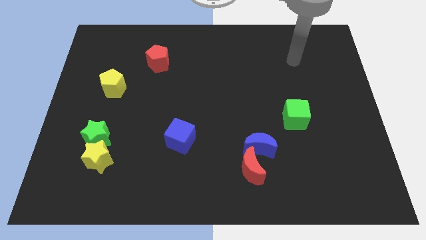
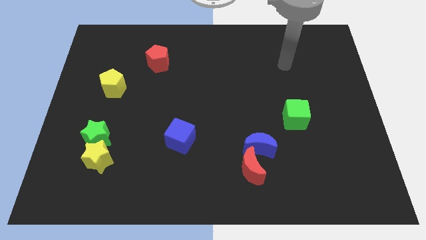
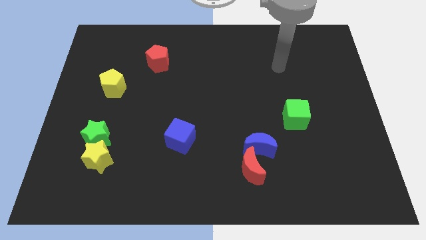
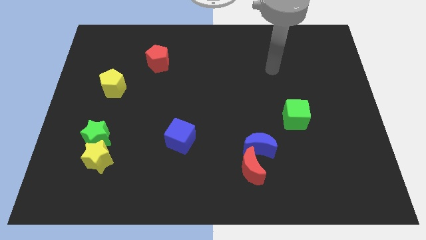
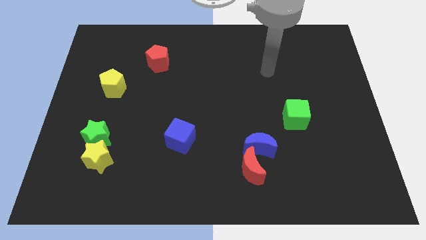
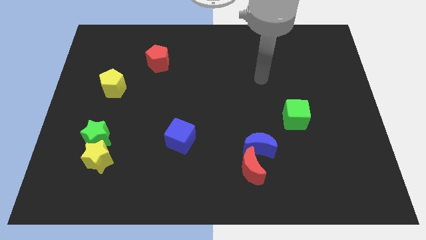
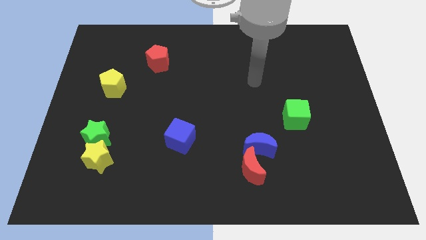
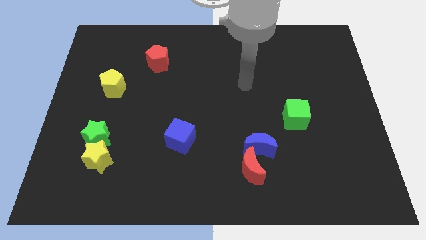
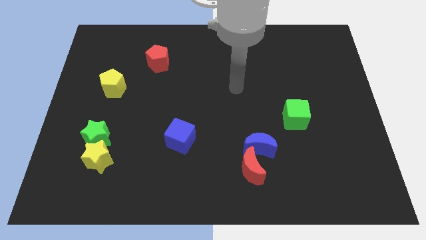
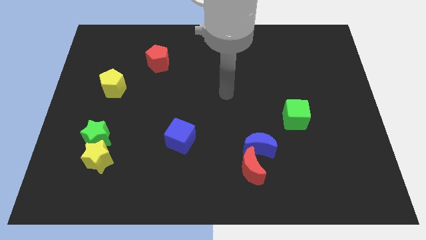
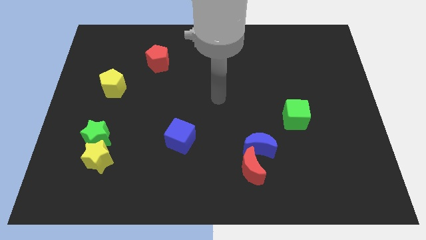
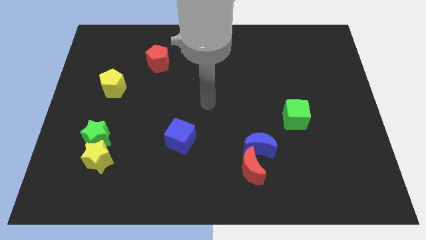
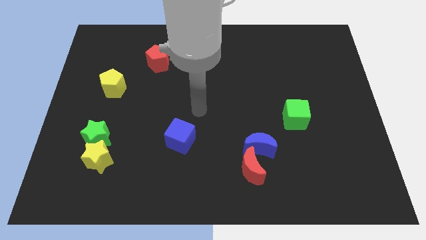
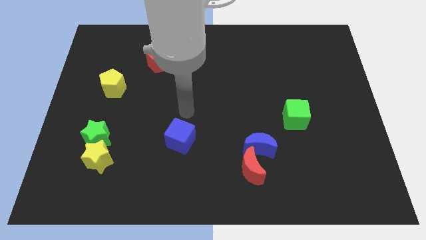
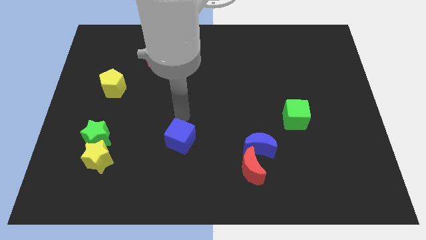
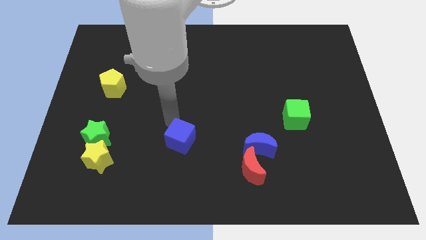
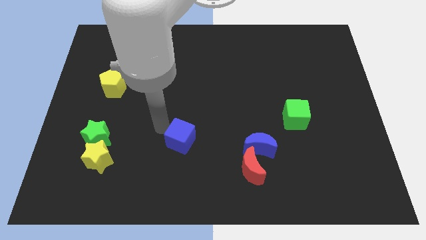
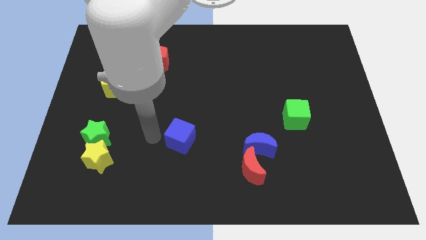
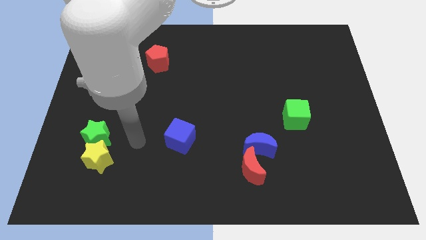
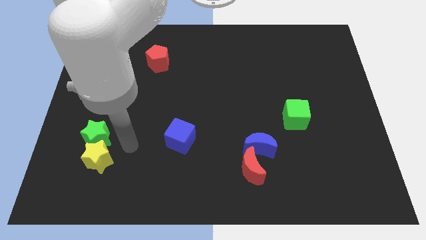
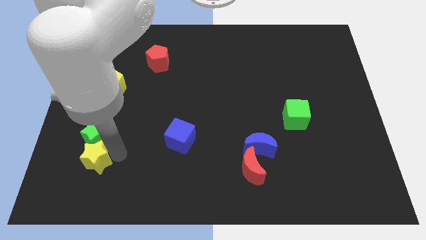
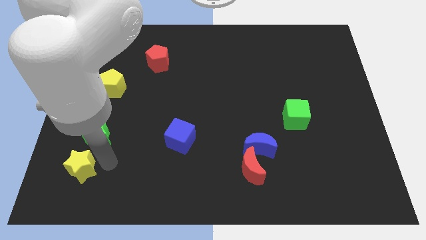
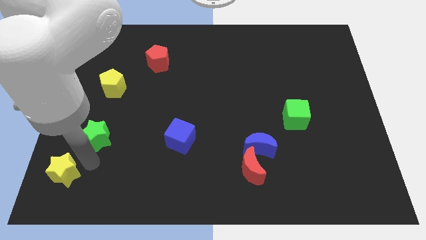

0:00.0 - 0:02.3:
pull the green star apart from the yellow star

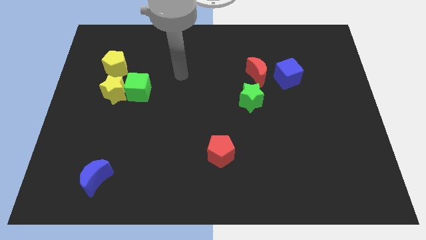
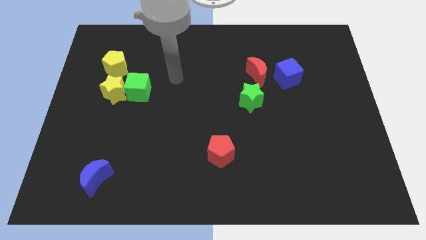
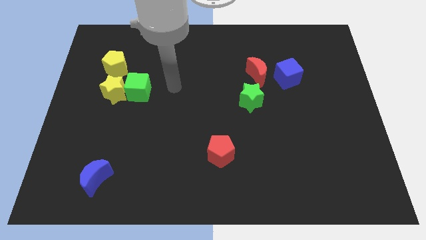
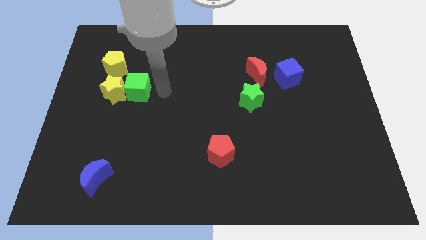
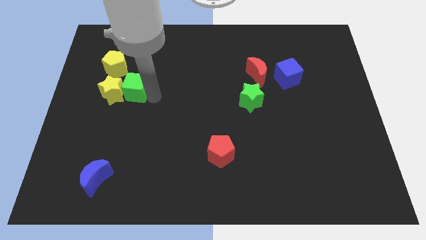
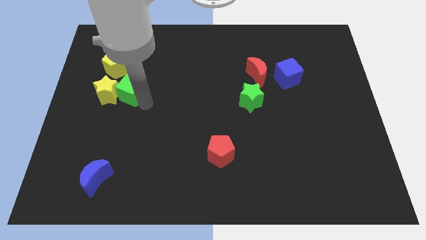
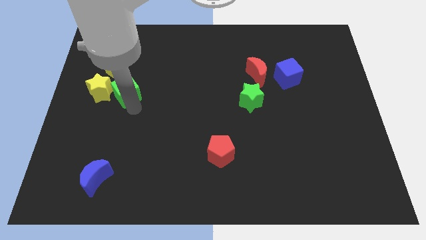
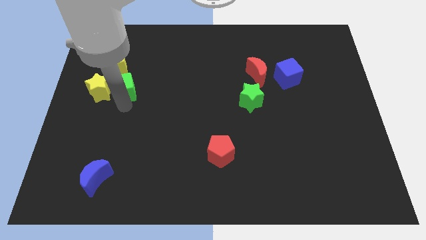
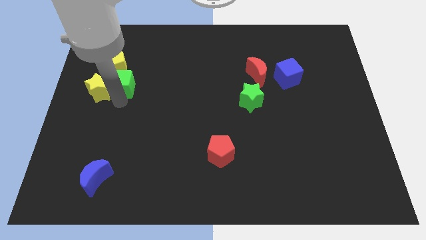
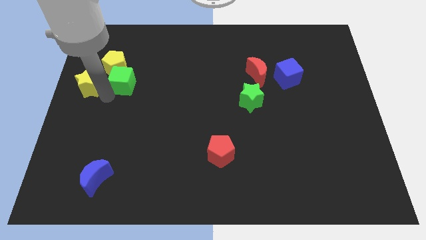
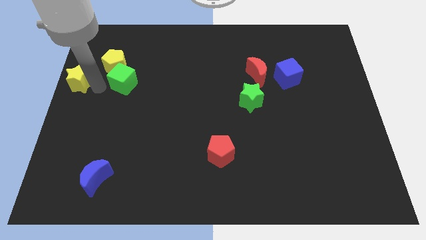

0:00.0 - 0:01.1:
pull the green cube apart from the yellow star

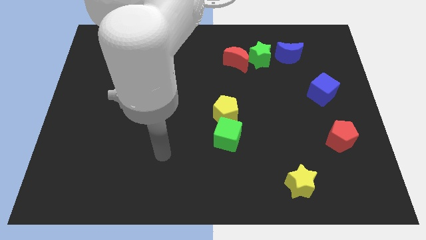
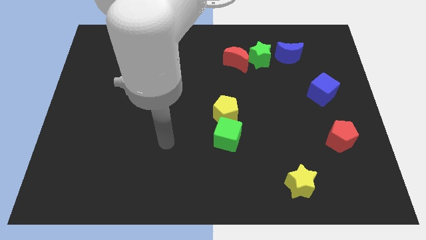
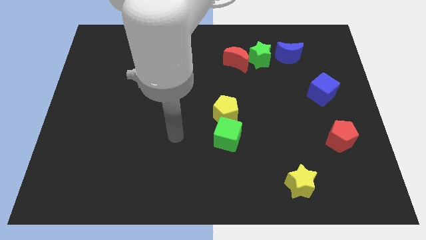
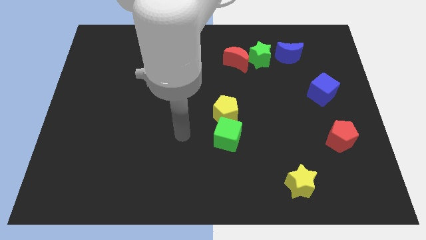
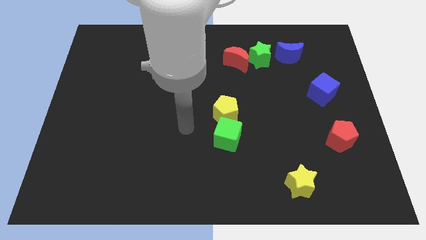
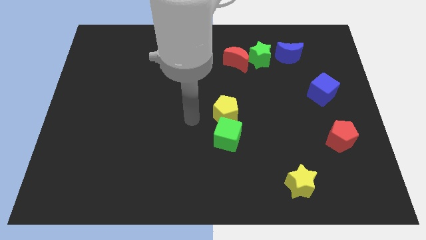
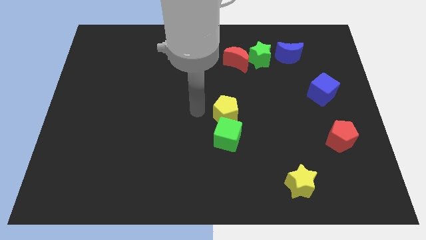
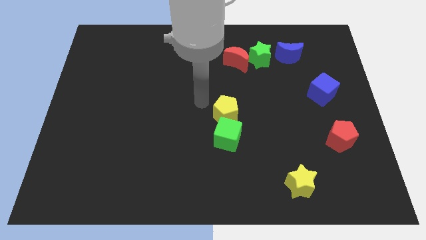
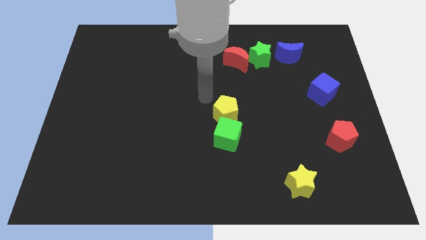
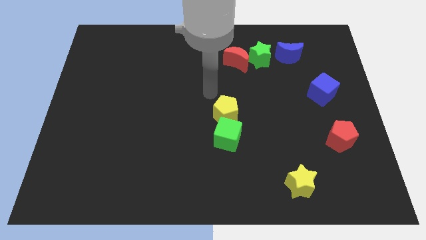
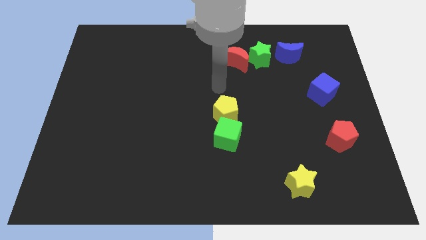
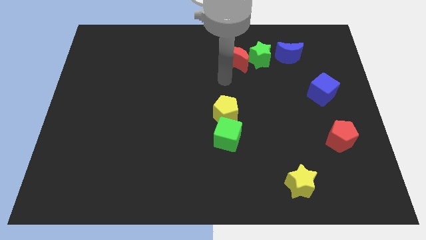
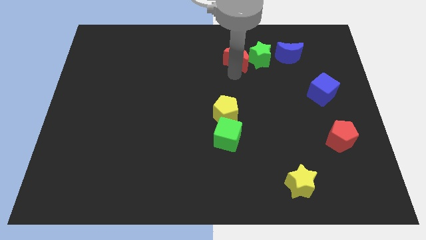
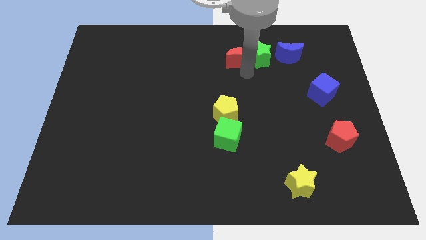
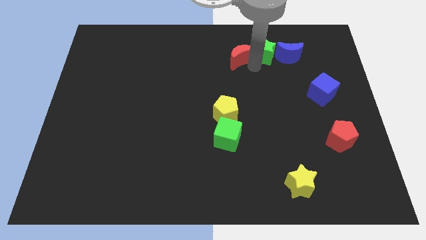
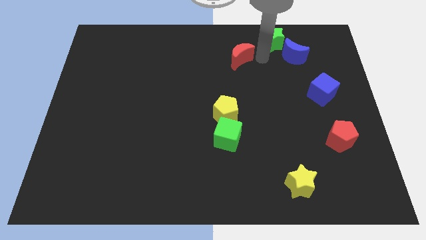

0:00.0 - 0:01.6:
move the red moon away from the green star

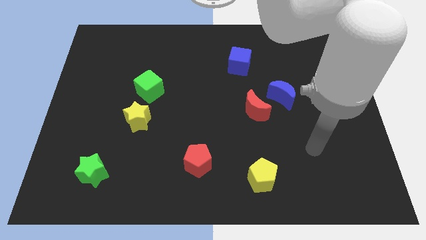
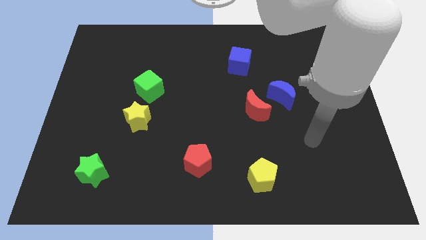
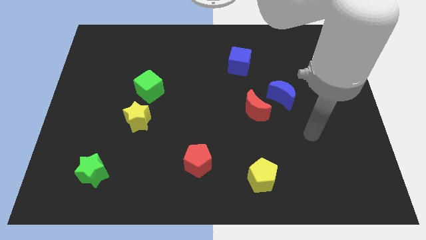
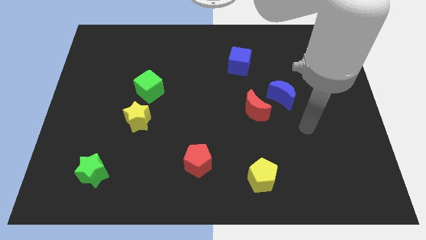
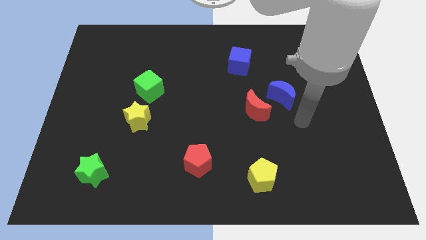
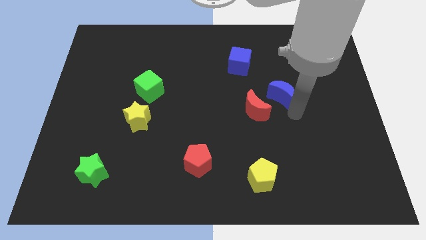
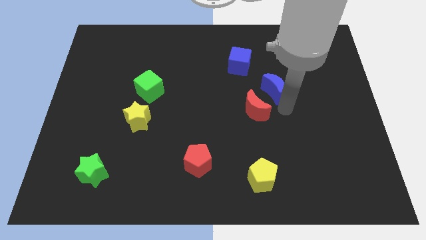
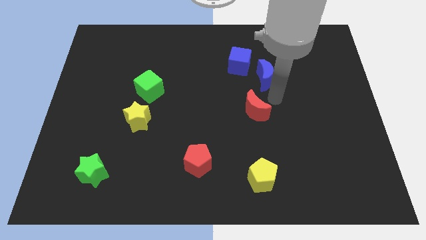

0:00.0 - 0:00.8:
pull the red moon apart from the blue moon

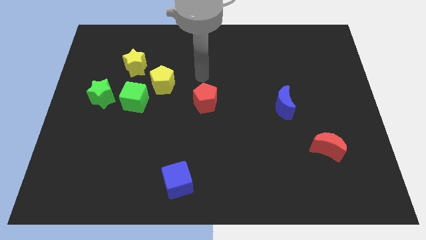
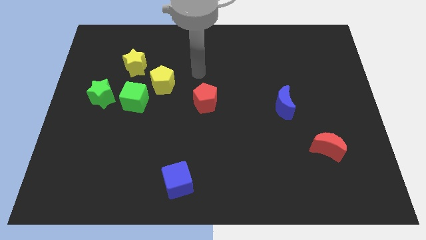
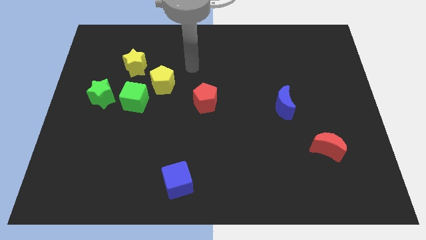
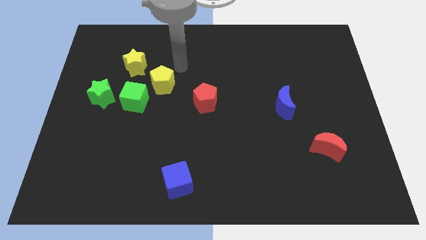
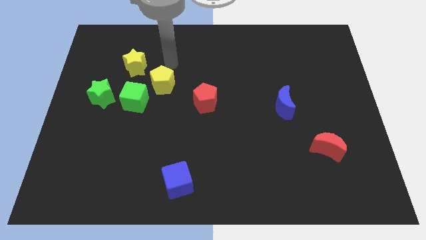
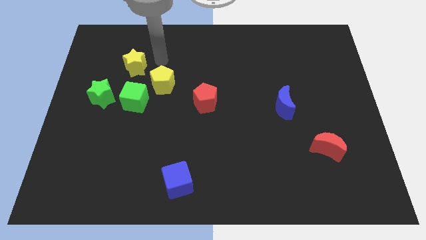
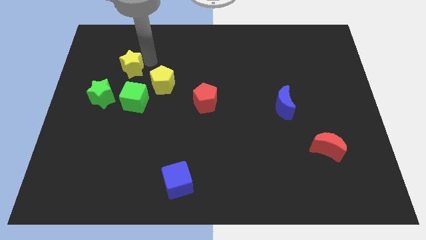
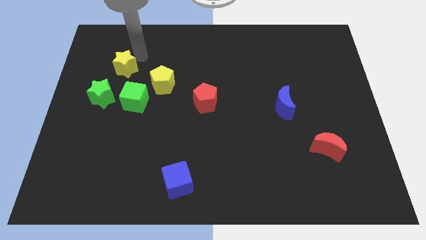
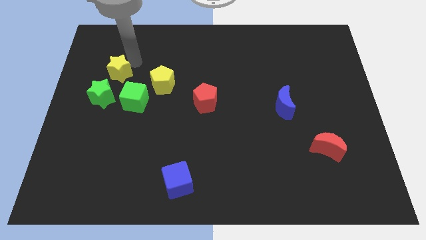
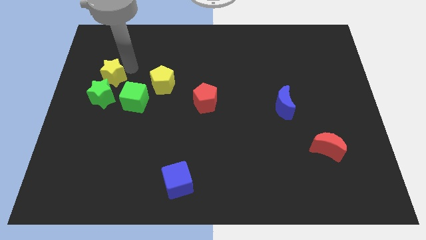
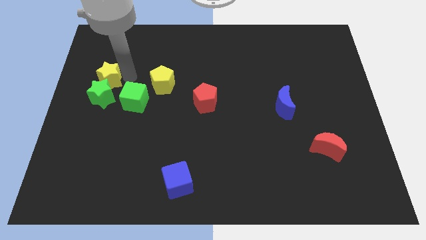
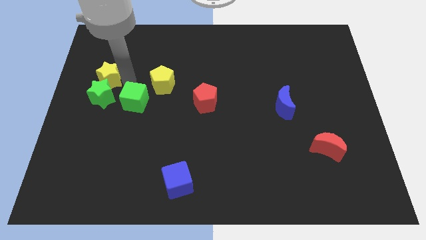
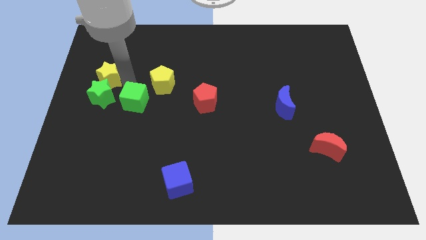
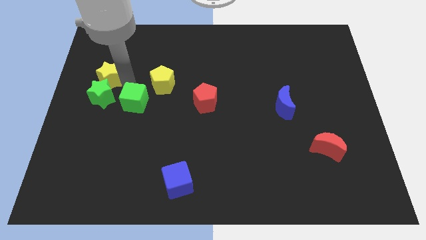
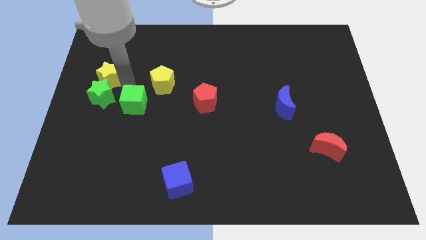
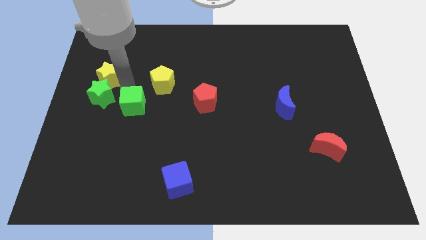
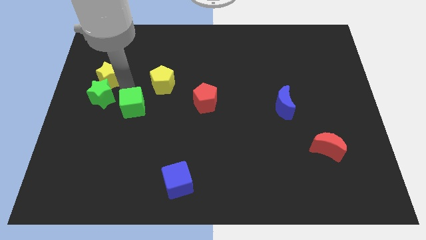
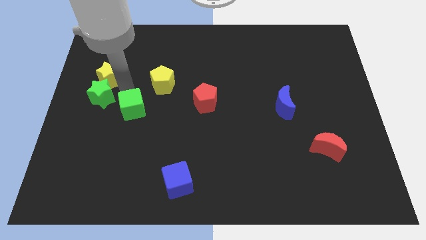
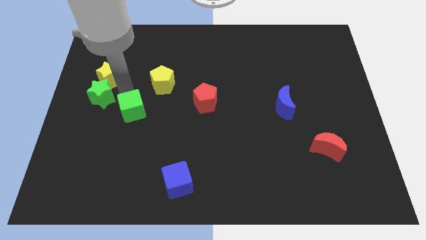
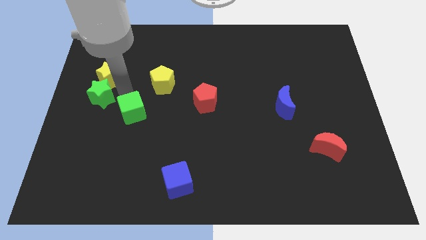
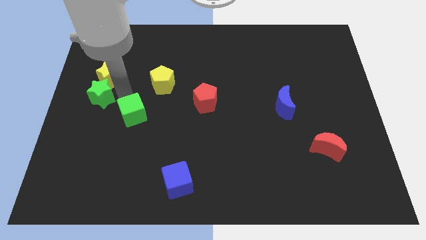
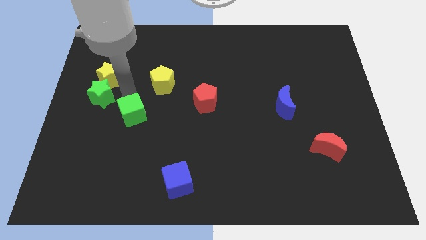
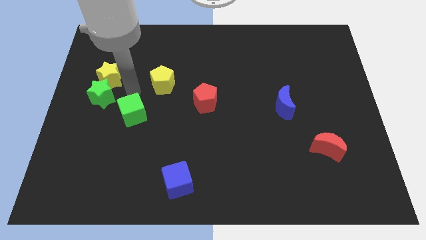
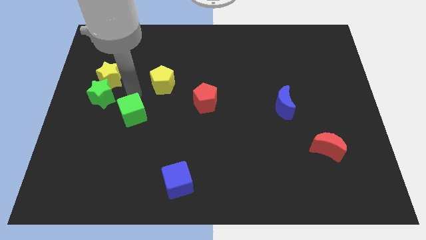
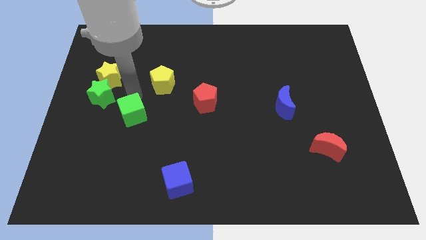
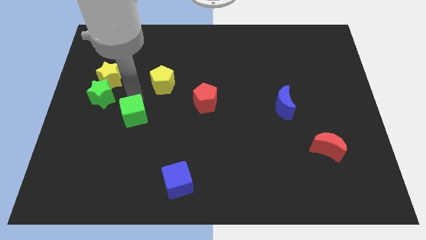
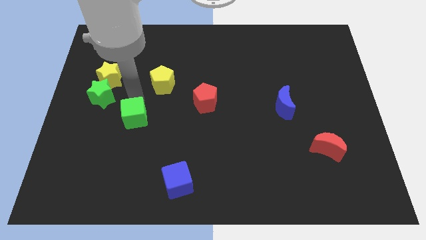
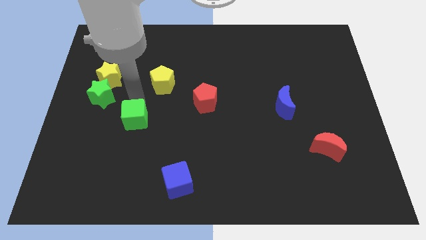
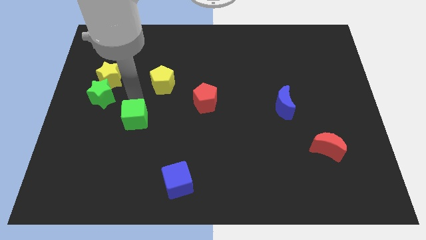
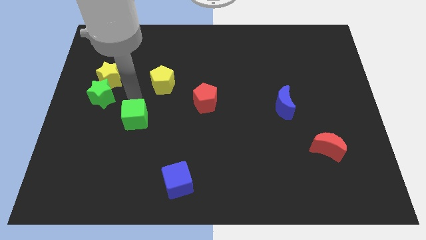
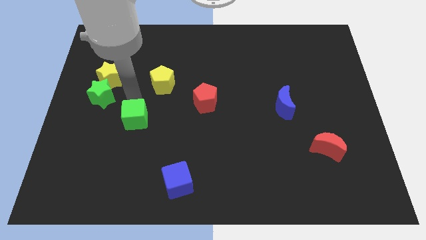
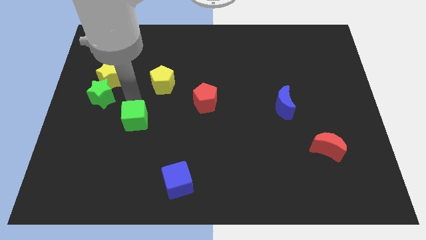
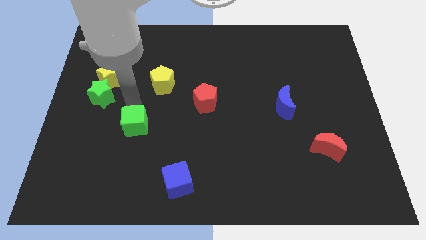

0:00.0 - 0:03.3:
pull the green cube apart from the yellow pentagon and green star

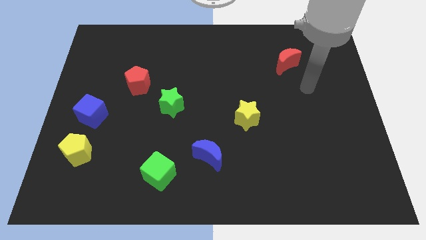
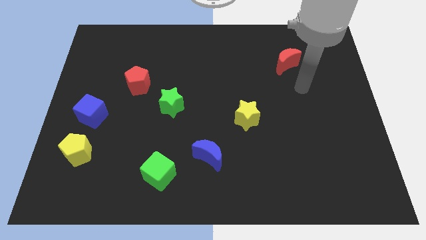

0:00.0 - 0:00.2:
move the blue cube away from the yellow pentagon

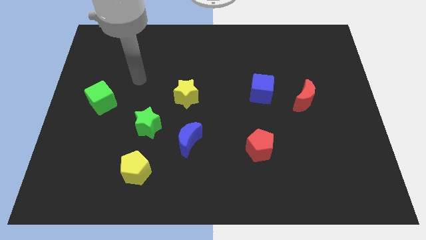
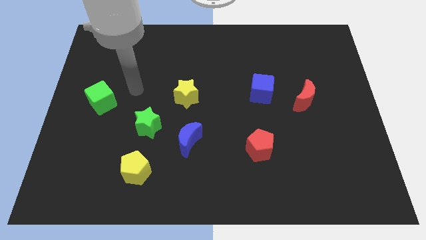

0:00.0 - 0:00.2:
move the blue moon away from the green star
